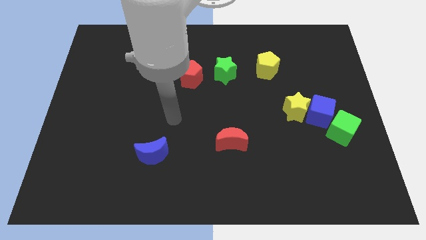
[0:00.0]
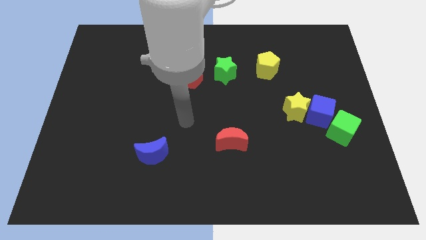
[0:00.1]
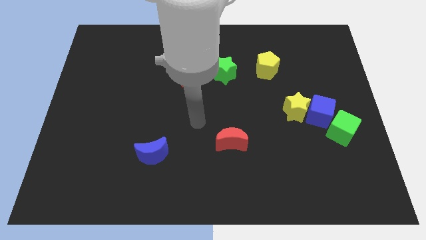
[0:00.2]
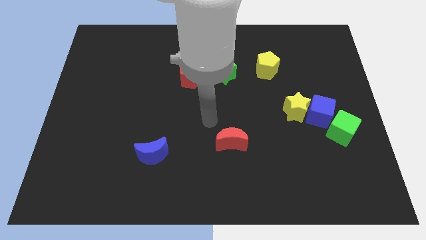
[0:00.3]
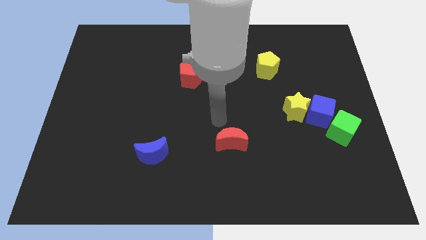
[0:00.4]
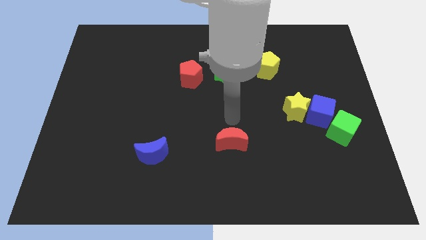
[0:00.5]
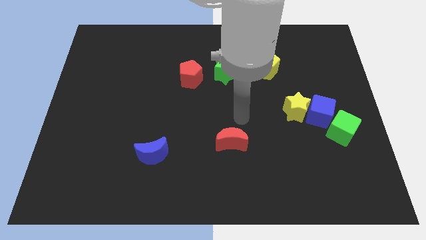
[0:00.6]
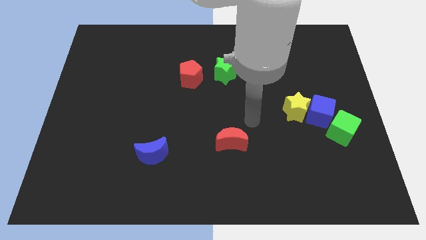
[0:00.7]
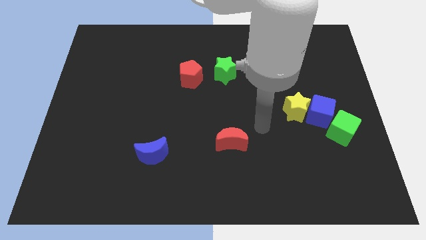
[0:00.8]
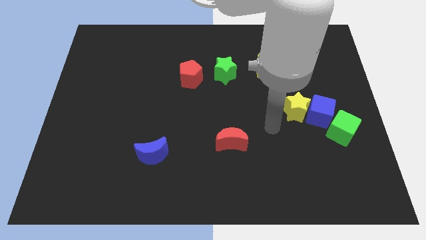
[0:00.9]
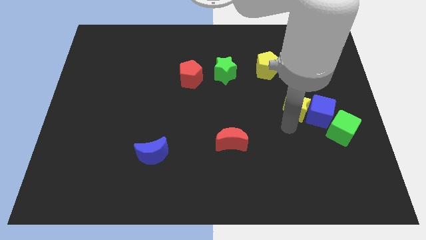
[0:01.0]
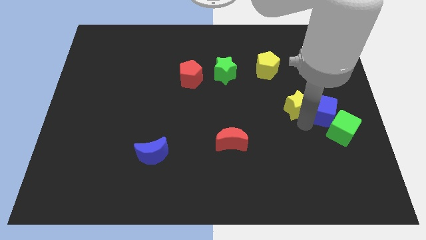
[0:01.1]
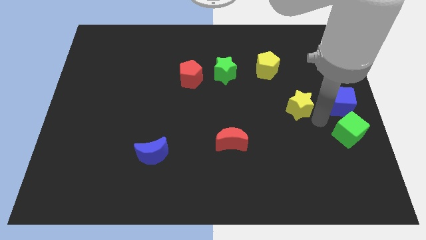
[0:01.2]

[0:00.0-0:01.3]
move the yellow star away from the blue cube

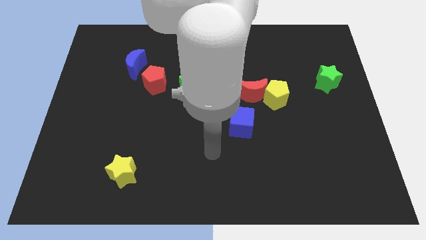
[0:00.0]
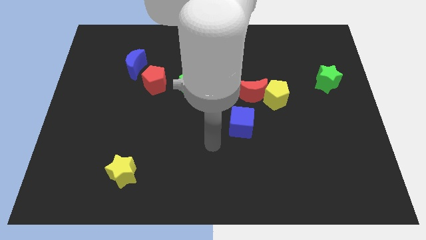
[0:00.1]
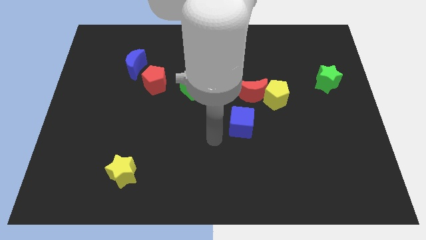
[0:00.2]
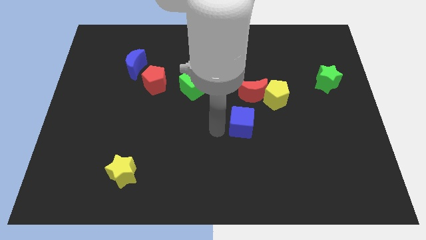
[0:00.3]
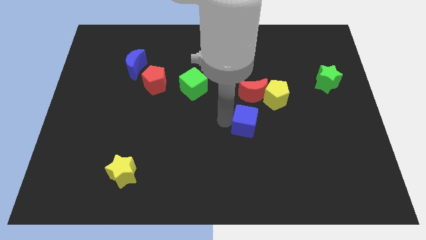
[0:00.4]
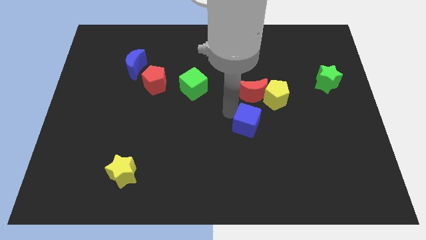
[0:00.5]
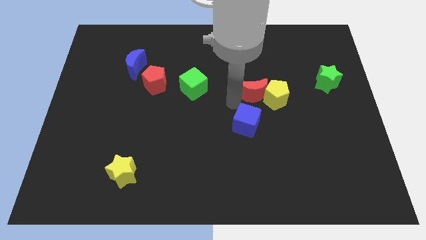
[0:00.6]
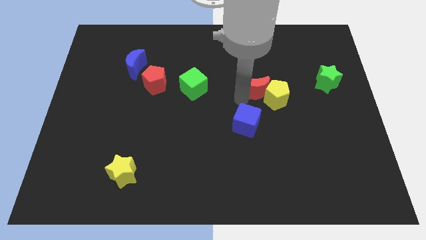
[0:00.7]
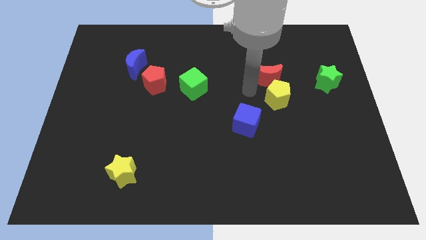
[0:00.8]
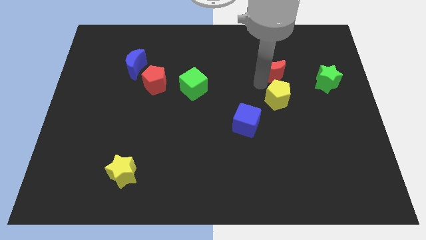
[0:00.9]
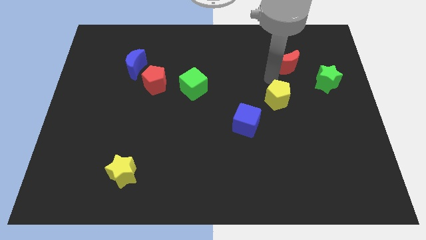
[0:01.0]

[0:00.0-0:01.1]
move the yellow pentagon away from the red moon

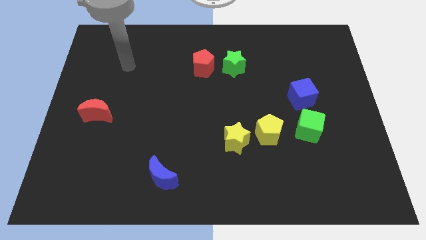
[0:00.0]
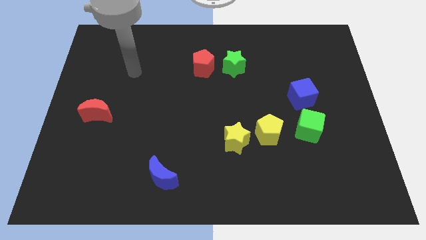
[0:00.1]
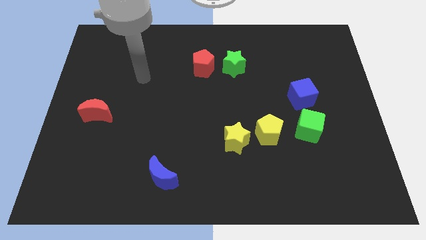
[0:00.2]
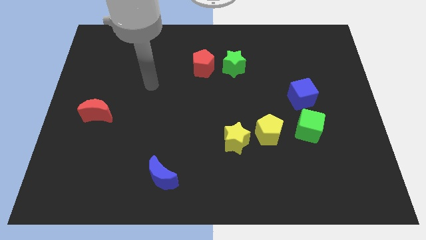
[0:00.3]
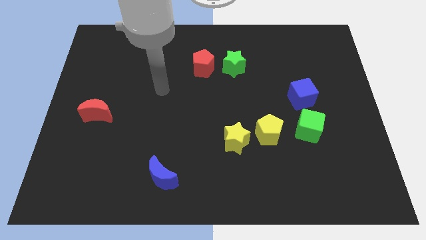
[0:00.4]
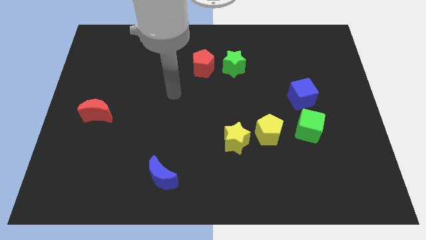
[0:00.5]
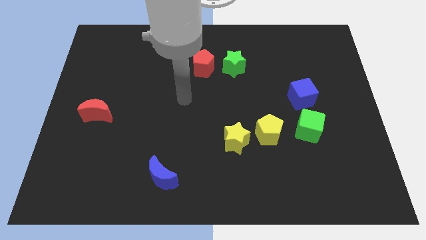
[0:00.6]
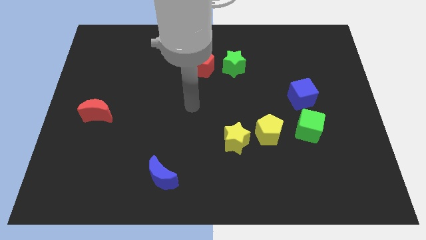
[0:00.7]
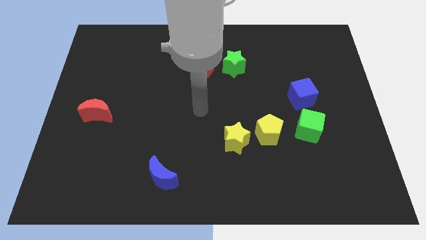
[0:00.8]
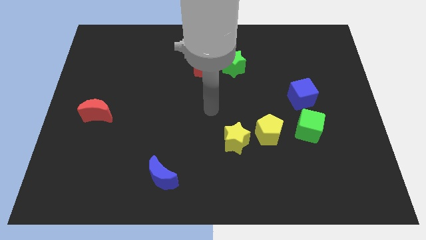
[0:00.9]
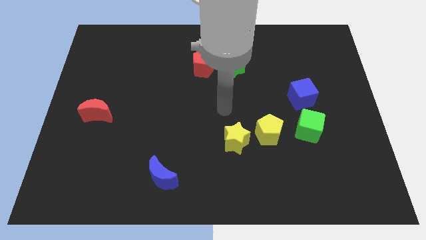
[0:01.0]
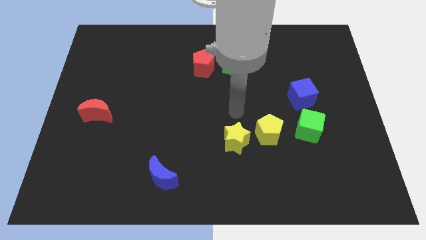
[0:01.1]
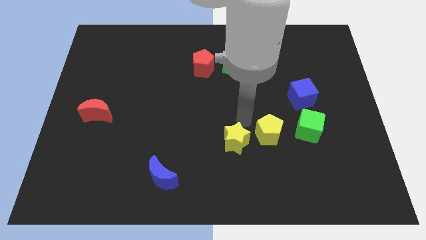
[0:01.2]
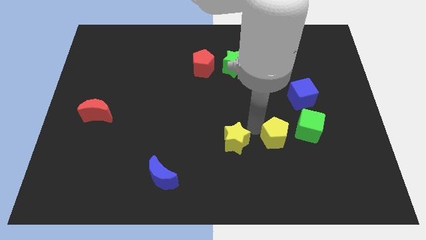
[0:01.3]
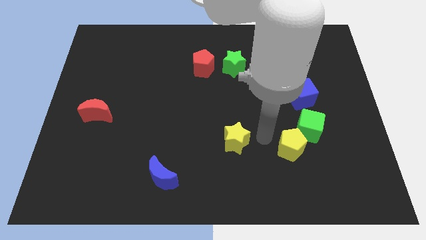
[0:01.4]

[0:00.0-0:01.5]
move the yellow star away from the yellow pentagon

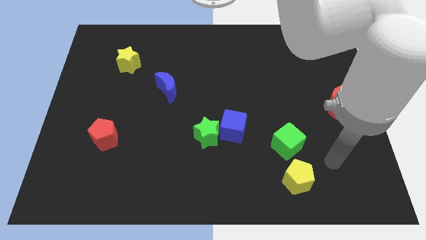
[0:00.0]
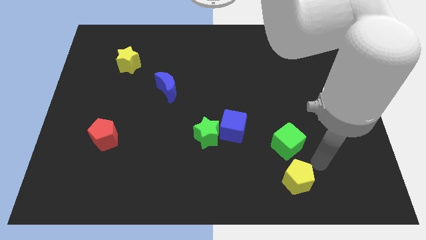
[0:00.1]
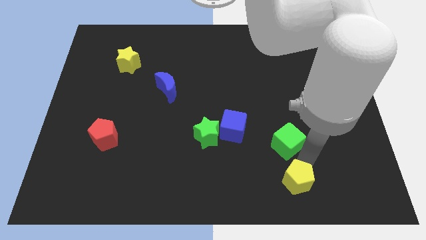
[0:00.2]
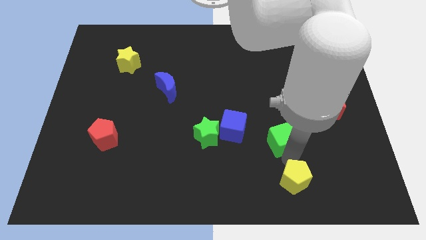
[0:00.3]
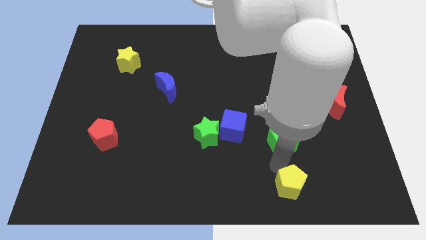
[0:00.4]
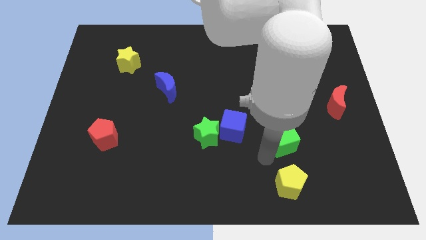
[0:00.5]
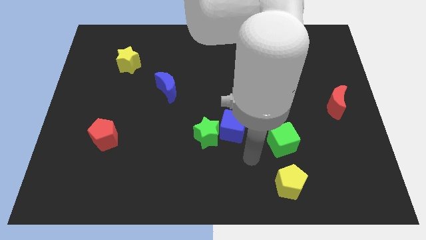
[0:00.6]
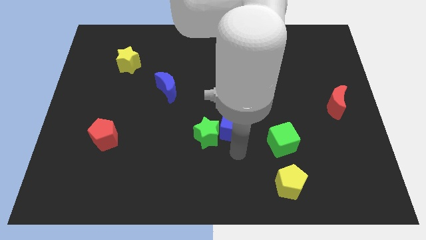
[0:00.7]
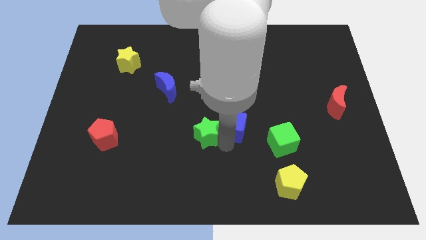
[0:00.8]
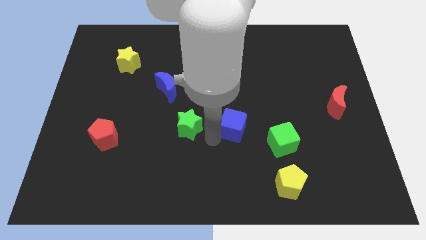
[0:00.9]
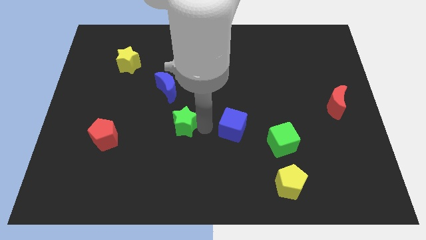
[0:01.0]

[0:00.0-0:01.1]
pull the blue cube apart from the green star

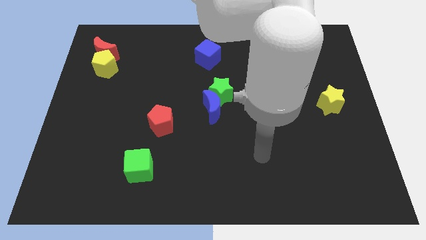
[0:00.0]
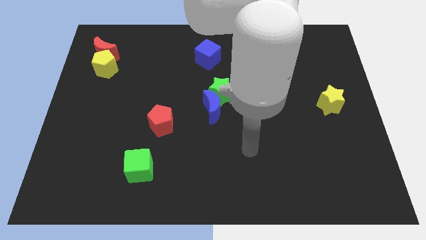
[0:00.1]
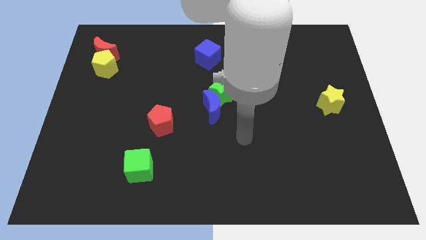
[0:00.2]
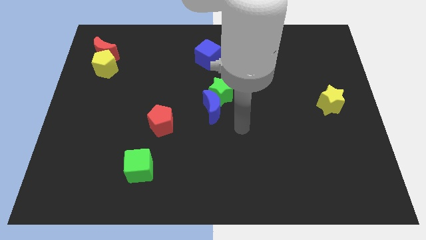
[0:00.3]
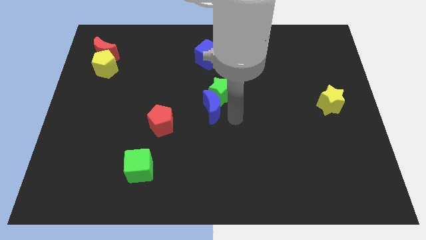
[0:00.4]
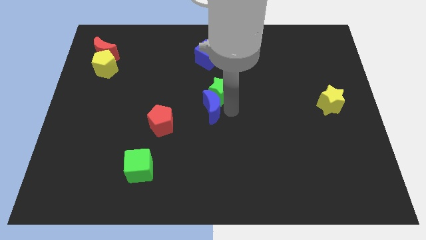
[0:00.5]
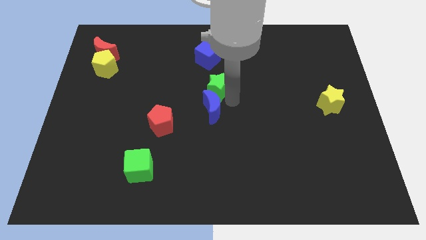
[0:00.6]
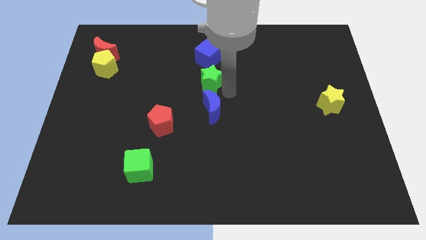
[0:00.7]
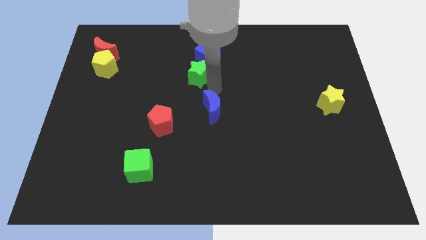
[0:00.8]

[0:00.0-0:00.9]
separate the blue moon from the green star

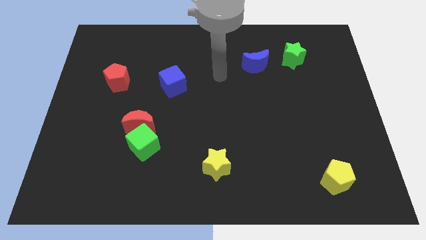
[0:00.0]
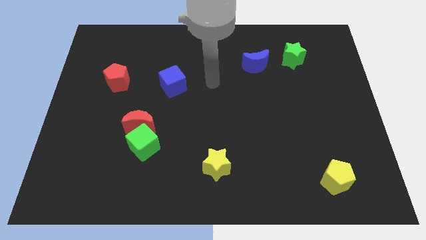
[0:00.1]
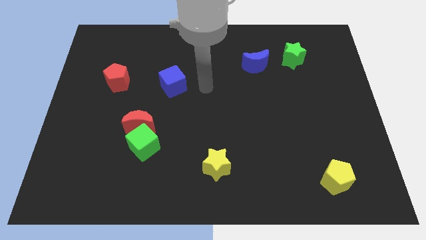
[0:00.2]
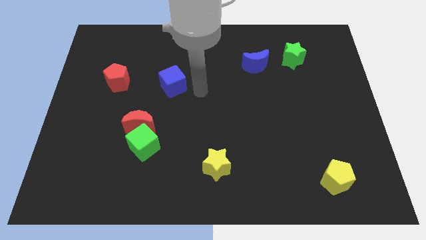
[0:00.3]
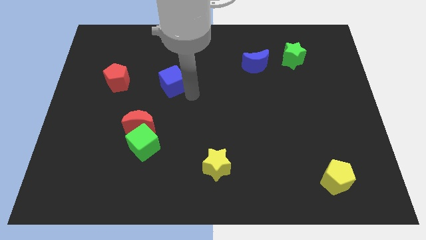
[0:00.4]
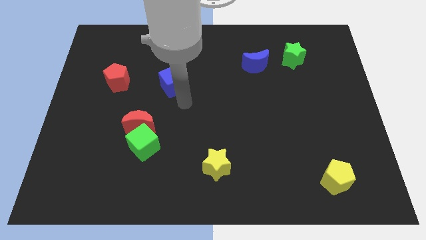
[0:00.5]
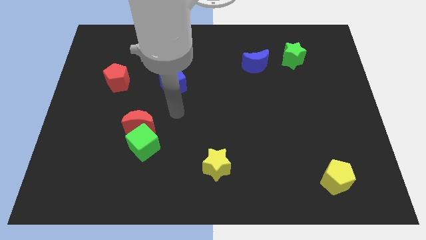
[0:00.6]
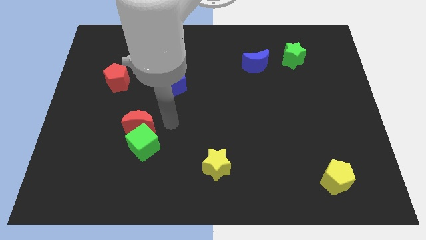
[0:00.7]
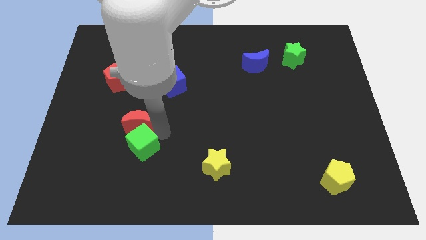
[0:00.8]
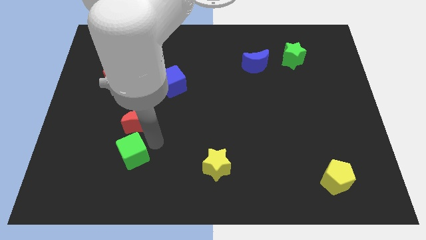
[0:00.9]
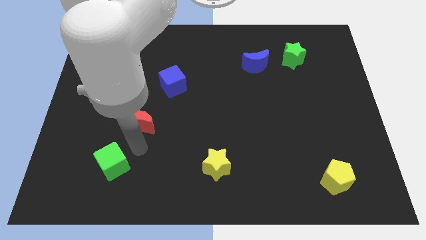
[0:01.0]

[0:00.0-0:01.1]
move the red moon away from the green cube

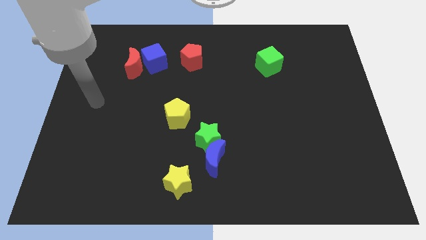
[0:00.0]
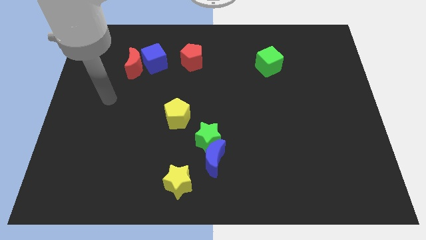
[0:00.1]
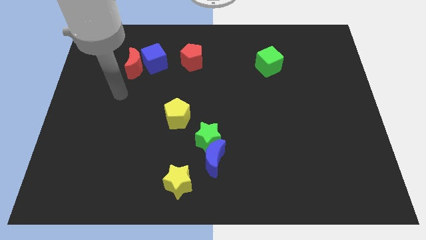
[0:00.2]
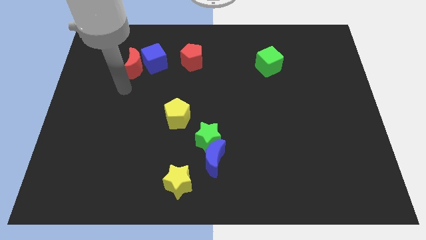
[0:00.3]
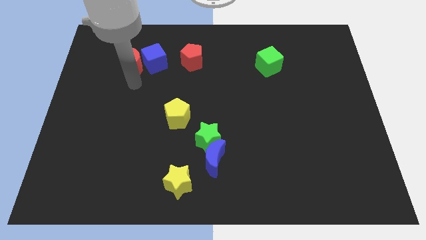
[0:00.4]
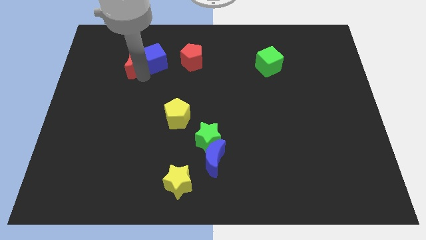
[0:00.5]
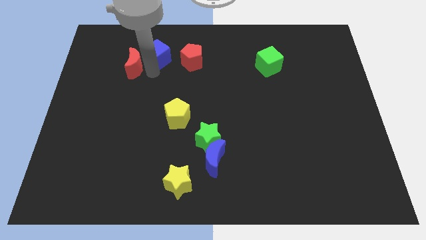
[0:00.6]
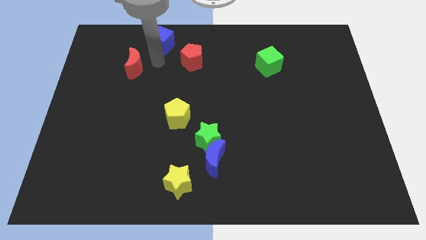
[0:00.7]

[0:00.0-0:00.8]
separate the red moon from the blue cube

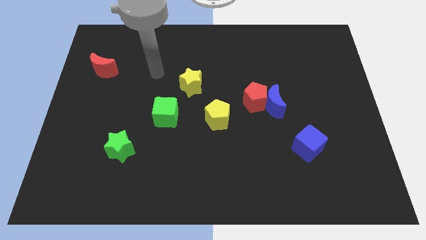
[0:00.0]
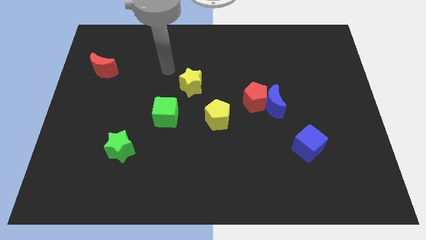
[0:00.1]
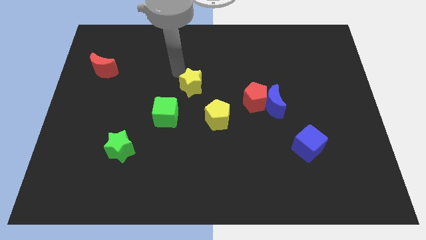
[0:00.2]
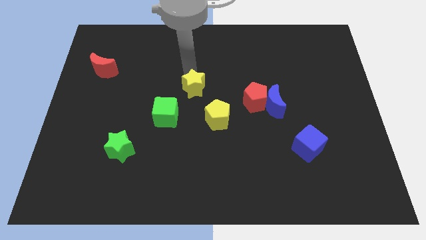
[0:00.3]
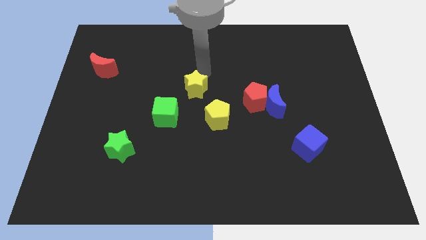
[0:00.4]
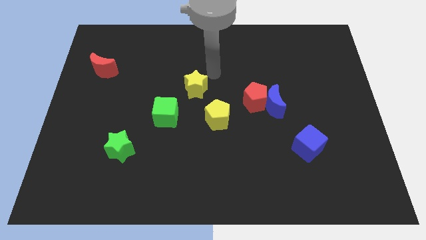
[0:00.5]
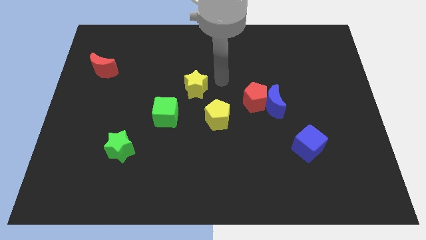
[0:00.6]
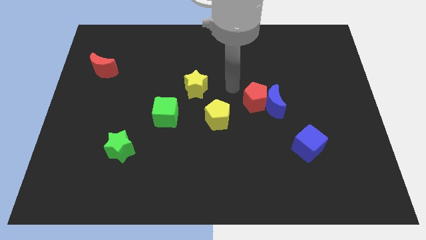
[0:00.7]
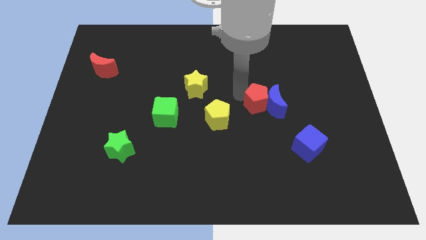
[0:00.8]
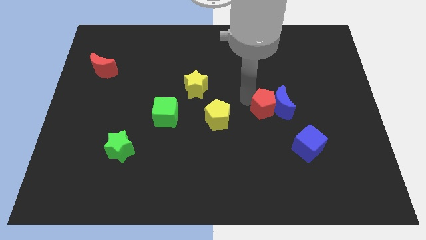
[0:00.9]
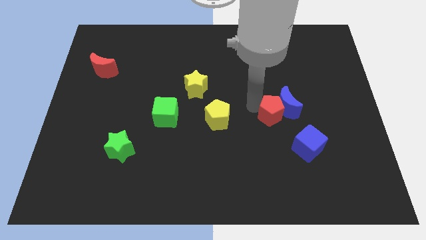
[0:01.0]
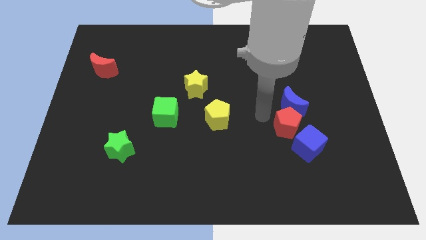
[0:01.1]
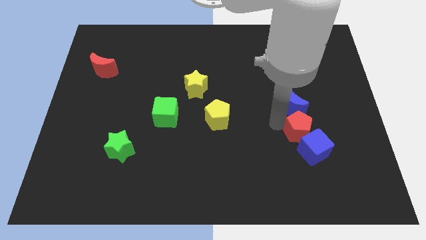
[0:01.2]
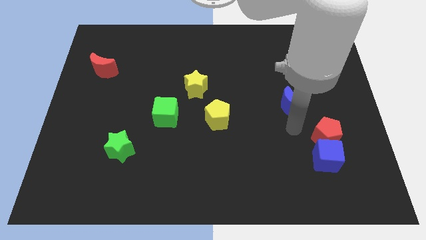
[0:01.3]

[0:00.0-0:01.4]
move the blue moon away from the red pentagon

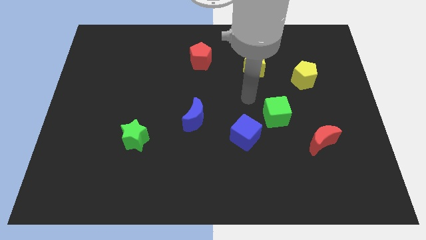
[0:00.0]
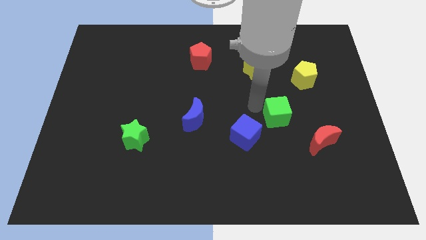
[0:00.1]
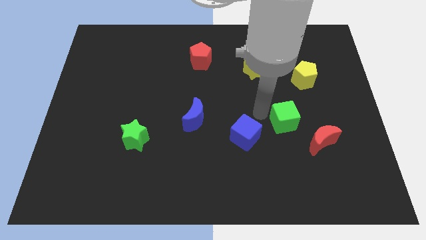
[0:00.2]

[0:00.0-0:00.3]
pull the blue cube apart from the green cube
